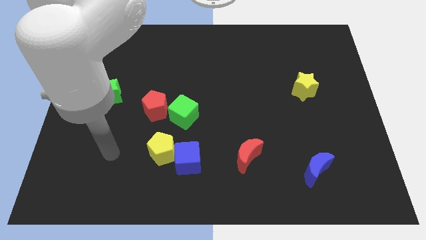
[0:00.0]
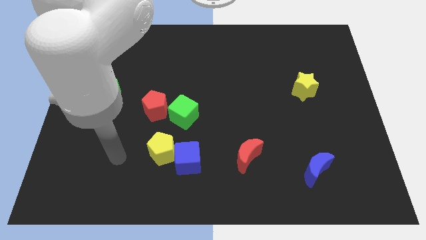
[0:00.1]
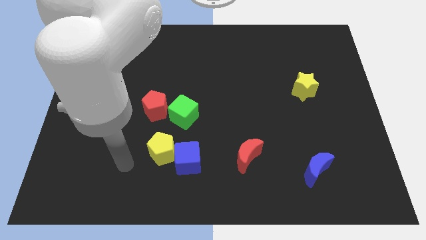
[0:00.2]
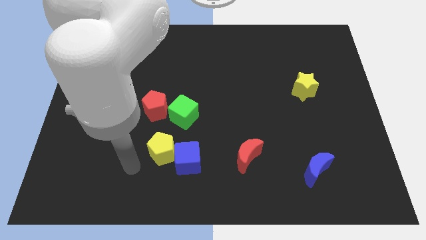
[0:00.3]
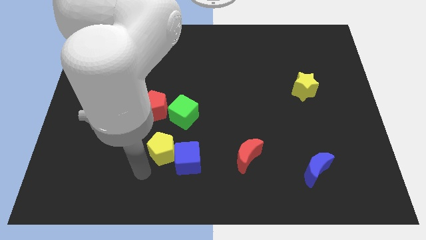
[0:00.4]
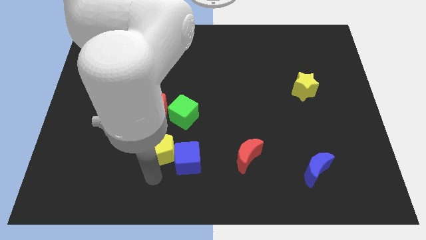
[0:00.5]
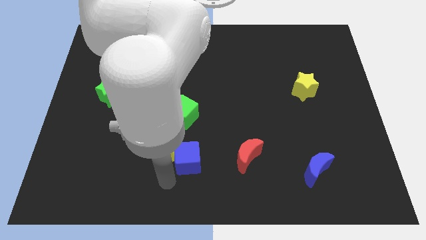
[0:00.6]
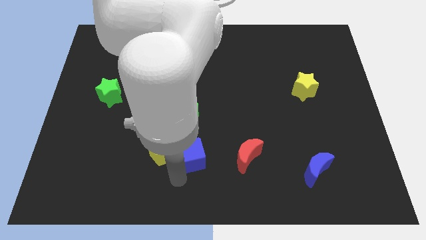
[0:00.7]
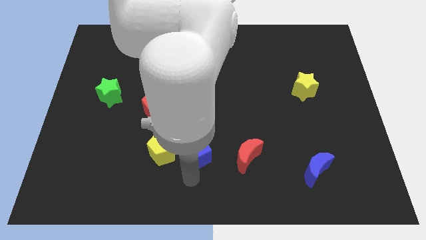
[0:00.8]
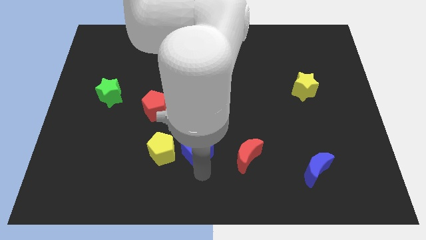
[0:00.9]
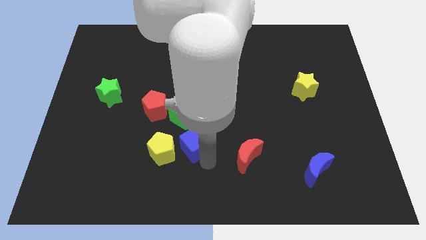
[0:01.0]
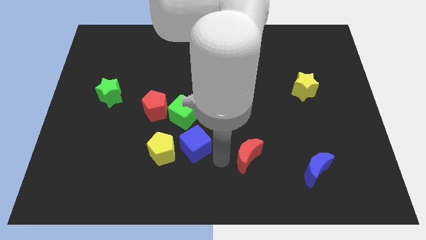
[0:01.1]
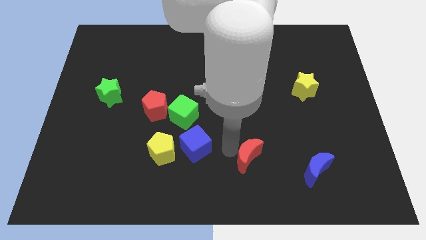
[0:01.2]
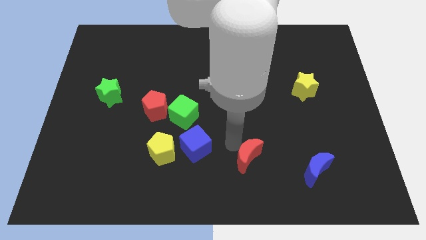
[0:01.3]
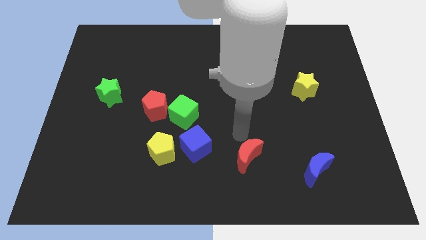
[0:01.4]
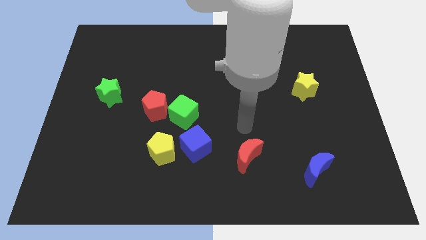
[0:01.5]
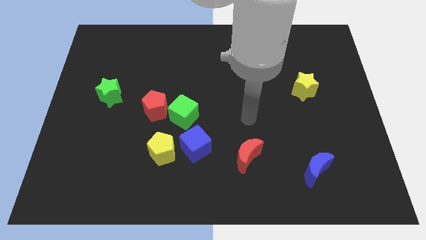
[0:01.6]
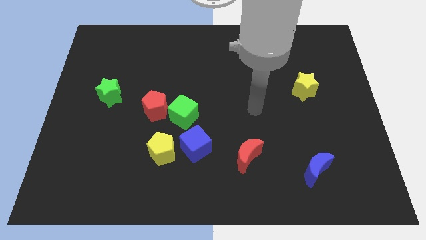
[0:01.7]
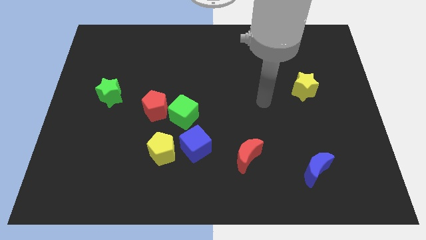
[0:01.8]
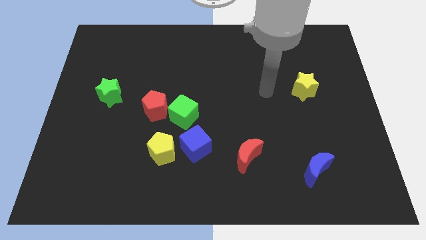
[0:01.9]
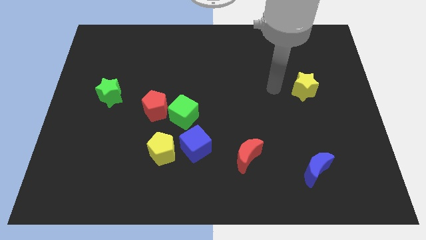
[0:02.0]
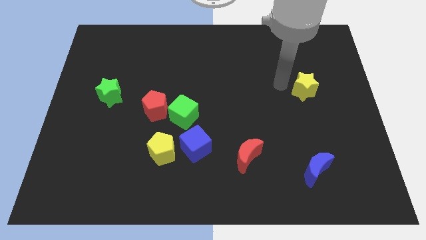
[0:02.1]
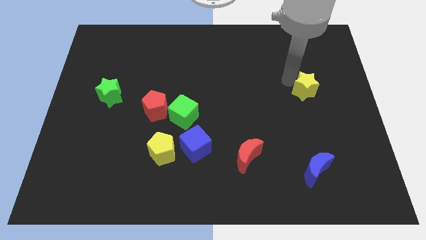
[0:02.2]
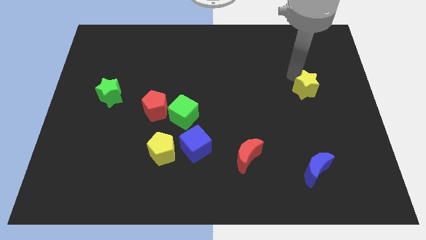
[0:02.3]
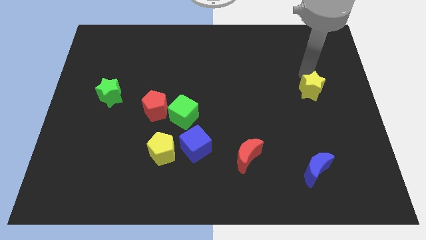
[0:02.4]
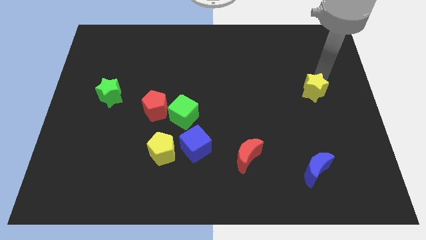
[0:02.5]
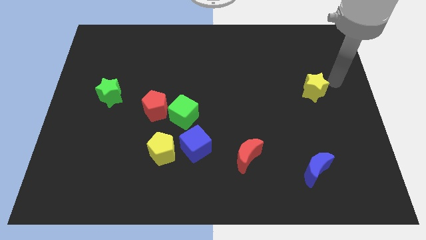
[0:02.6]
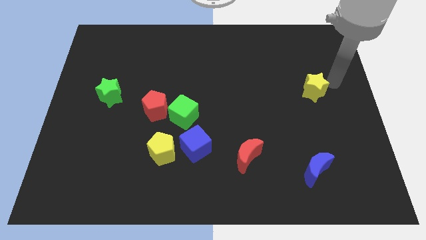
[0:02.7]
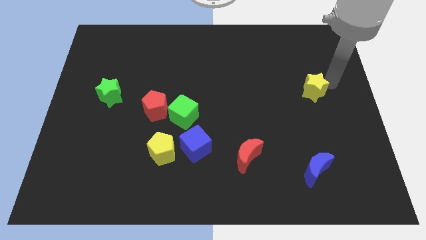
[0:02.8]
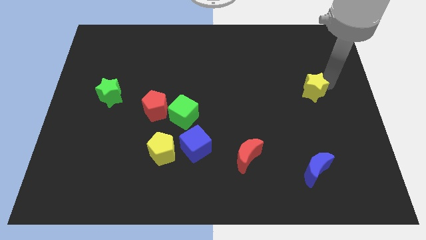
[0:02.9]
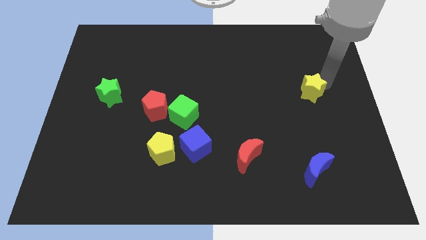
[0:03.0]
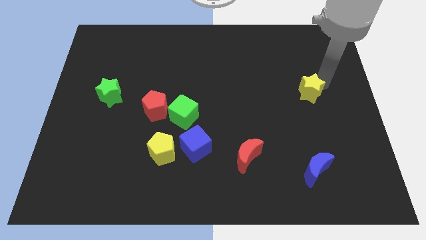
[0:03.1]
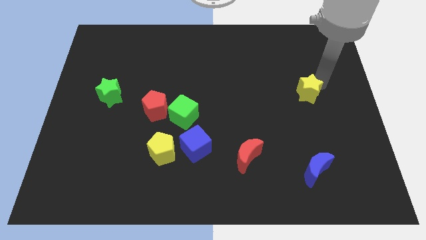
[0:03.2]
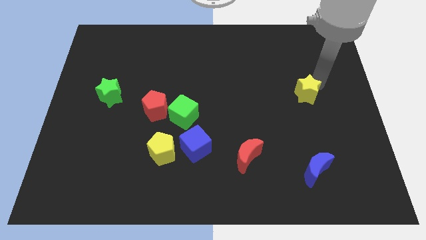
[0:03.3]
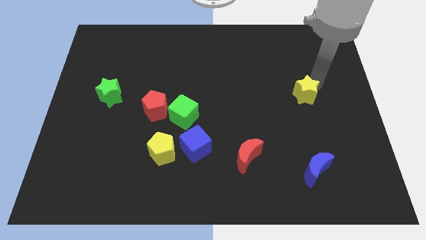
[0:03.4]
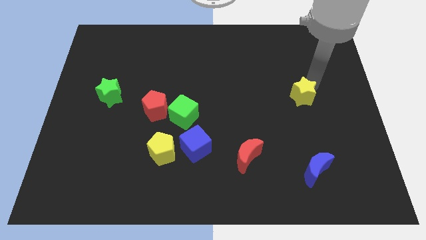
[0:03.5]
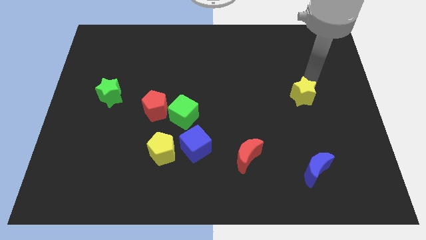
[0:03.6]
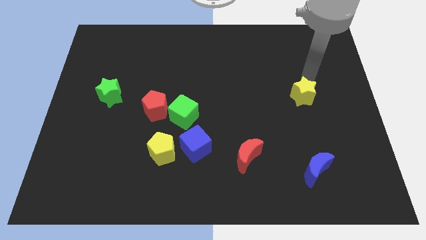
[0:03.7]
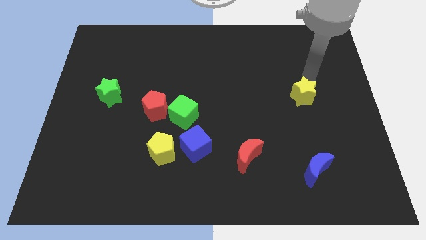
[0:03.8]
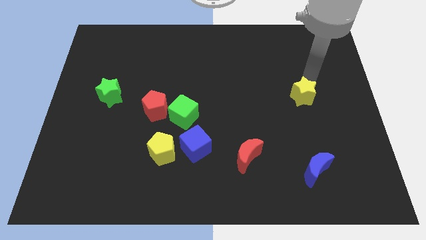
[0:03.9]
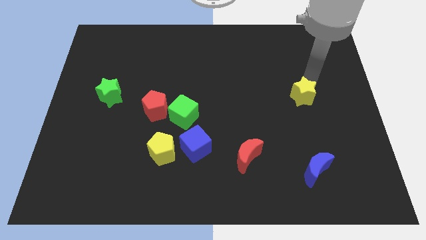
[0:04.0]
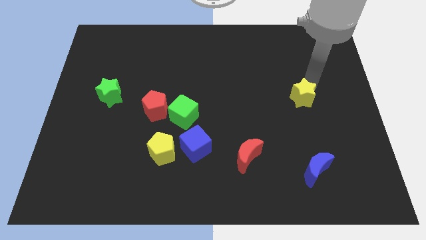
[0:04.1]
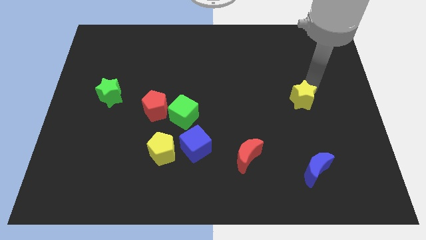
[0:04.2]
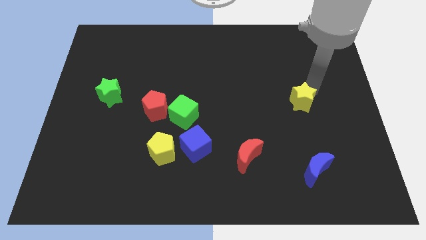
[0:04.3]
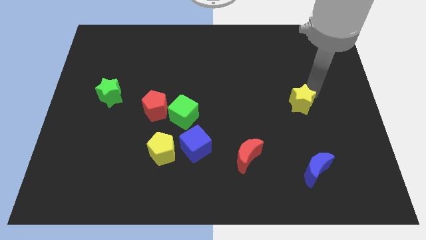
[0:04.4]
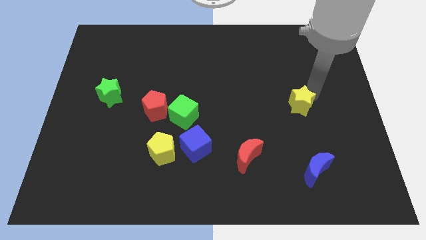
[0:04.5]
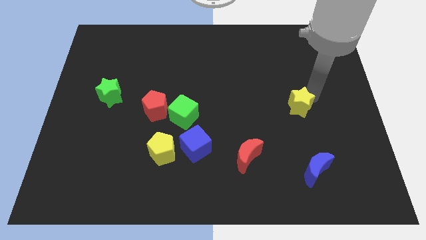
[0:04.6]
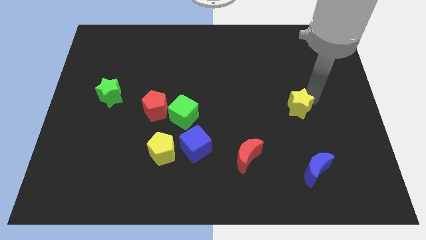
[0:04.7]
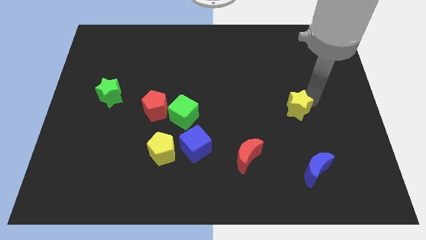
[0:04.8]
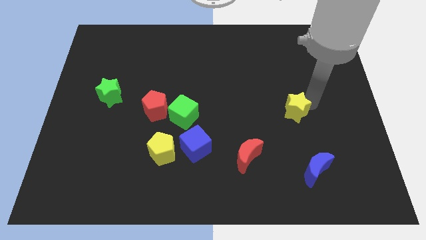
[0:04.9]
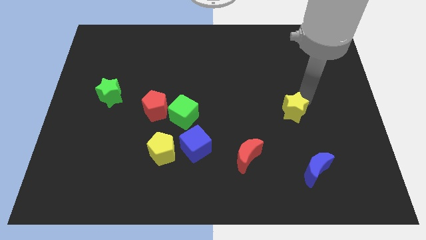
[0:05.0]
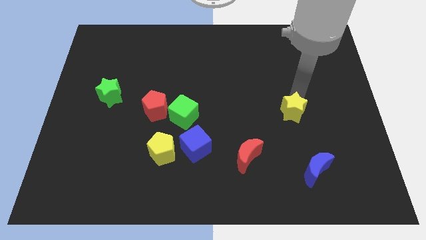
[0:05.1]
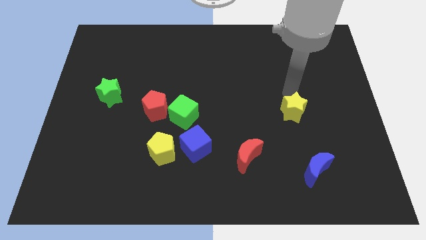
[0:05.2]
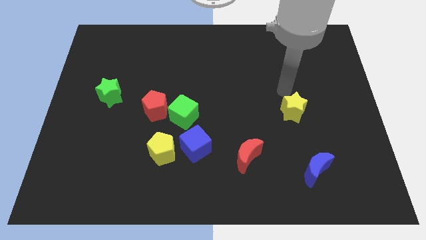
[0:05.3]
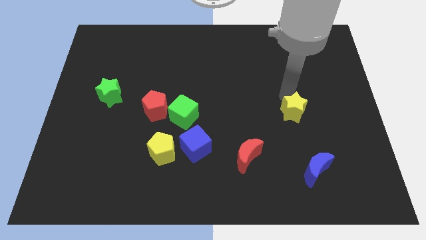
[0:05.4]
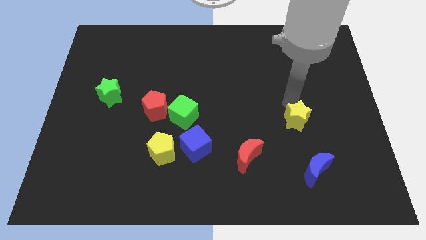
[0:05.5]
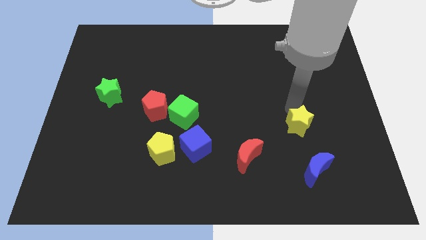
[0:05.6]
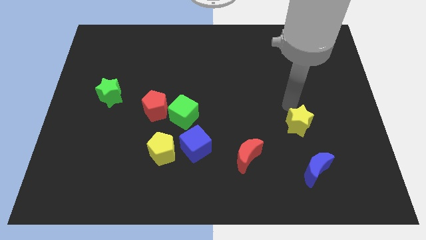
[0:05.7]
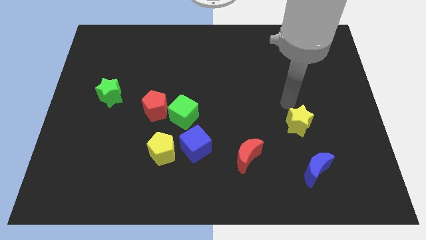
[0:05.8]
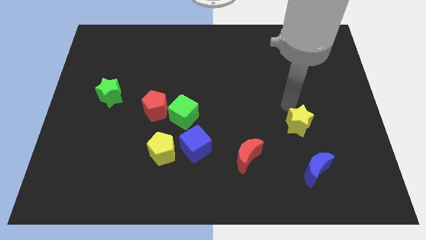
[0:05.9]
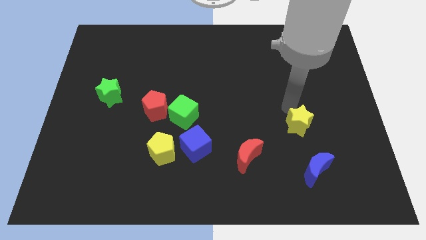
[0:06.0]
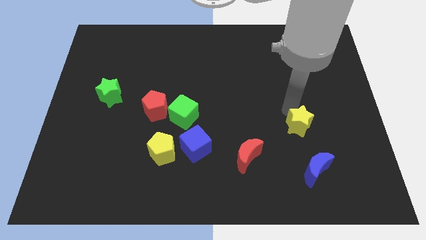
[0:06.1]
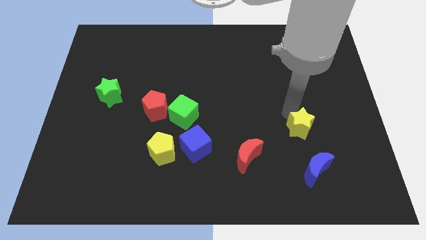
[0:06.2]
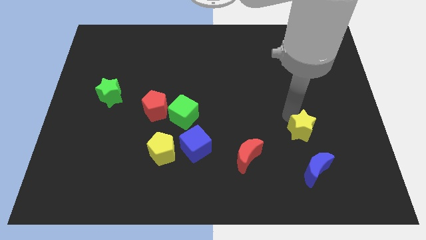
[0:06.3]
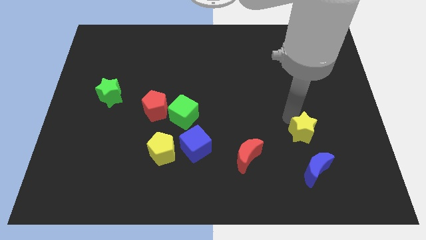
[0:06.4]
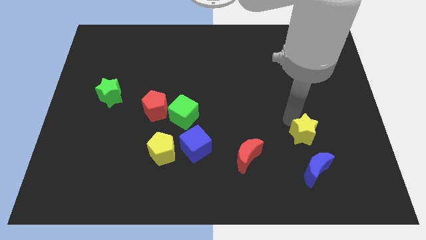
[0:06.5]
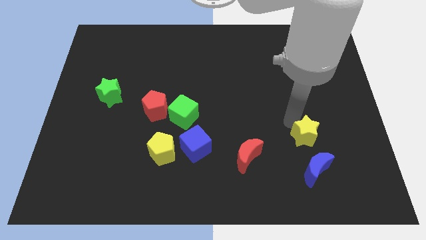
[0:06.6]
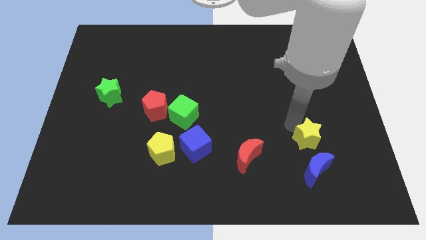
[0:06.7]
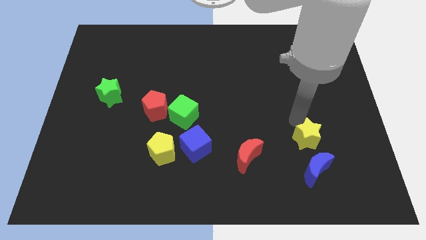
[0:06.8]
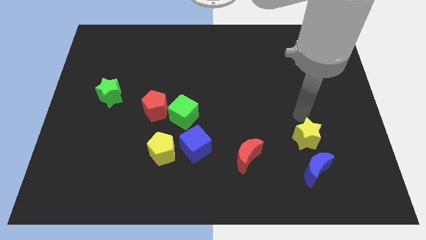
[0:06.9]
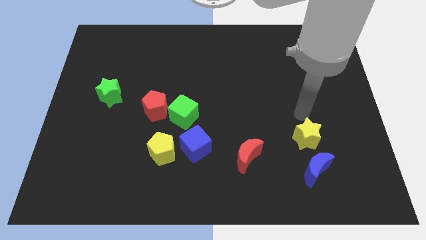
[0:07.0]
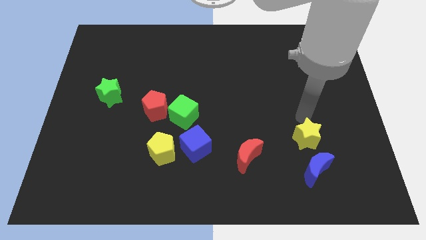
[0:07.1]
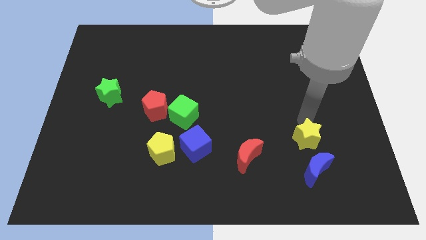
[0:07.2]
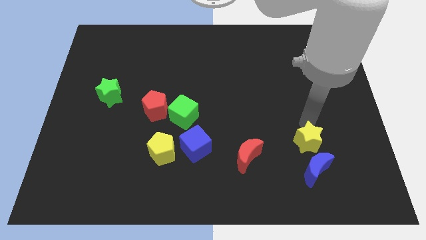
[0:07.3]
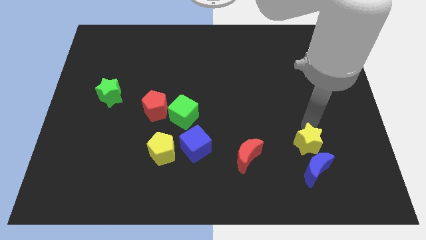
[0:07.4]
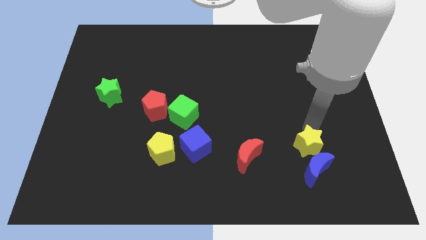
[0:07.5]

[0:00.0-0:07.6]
put the yellow star next to the blue moon
